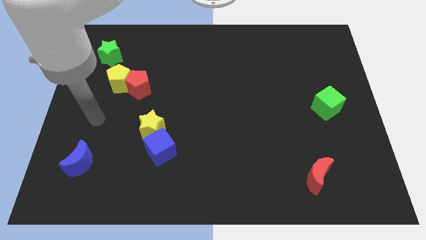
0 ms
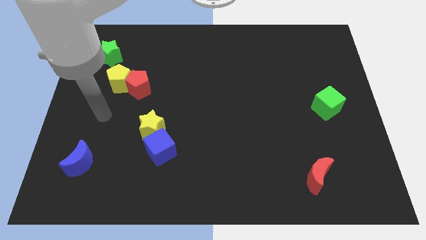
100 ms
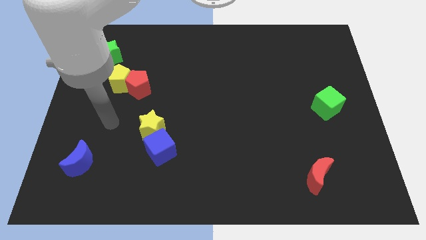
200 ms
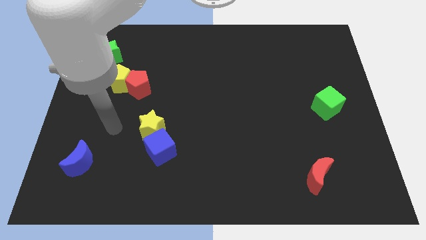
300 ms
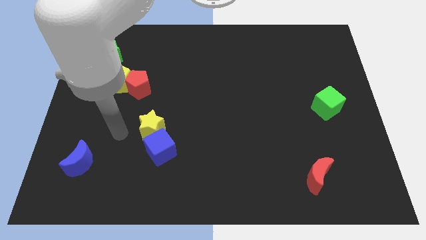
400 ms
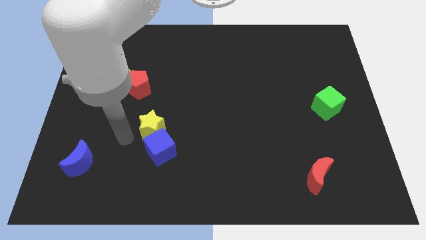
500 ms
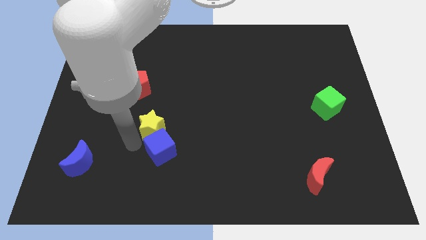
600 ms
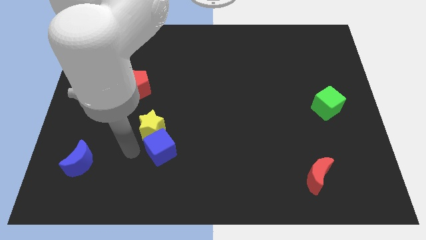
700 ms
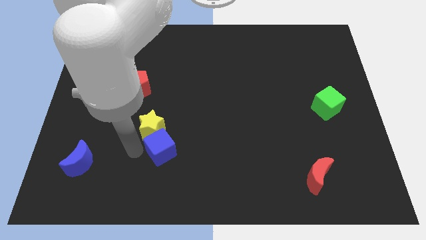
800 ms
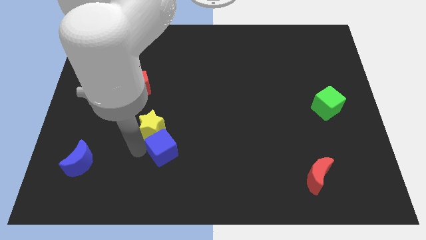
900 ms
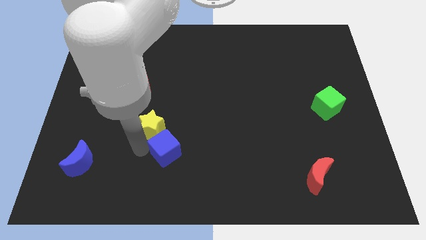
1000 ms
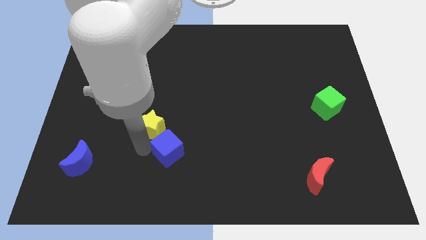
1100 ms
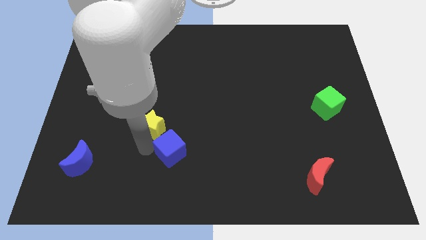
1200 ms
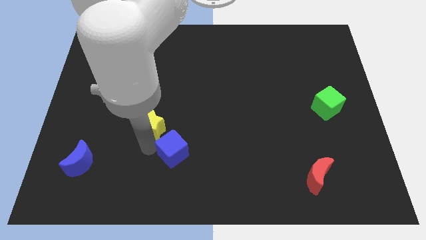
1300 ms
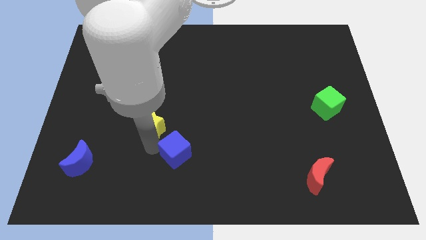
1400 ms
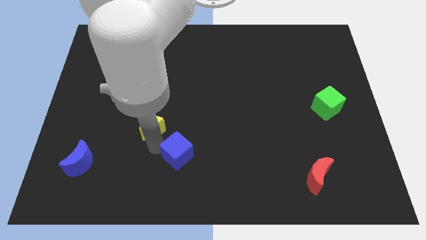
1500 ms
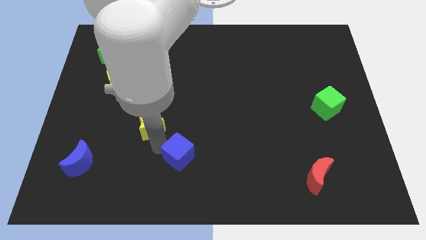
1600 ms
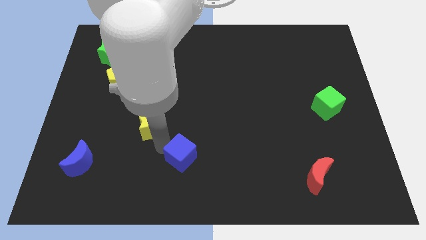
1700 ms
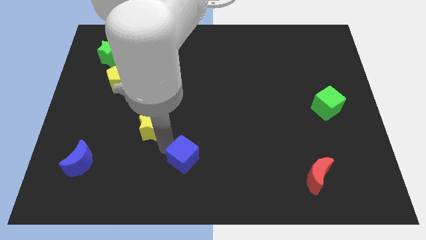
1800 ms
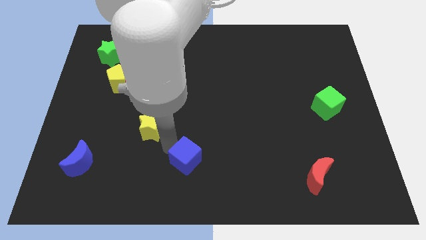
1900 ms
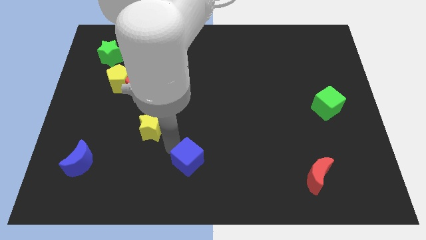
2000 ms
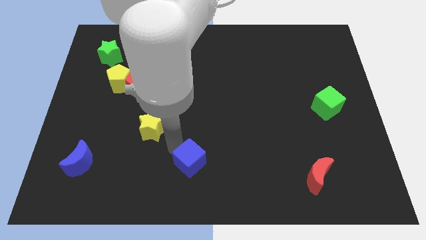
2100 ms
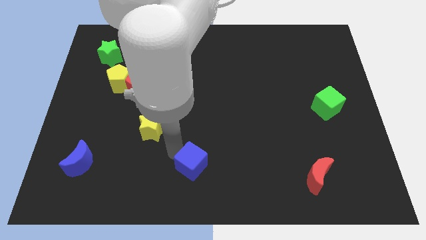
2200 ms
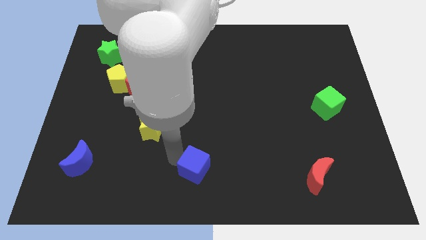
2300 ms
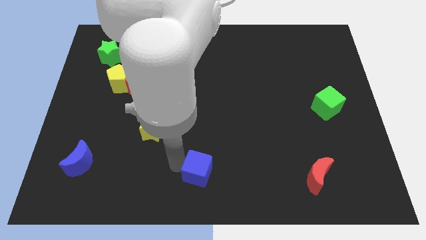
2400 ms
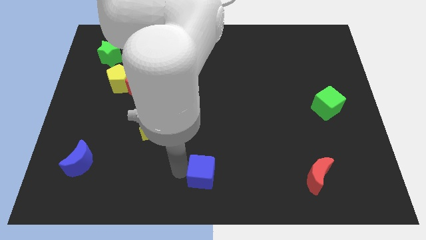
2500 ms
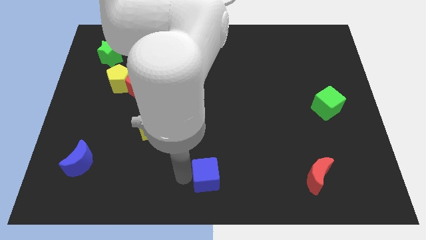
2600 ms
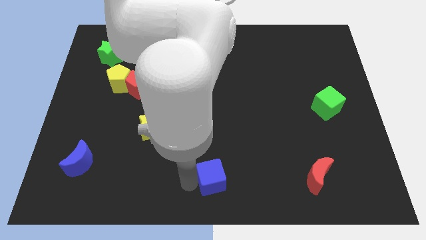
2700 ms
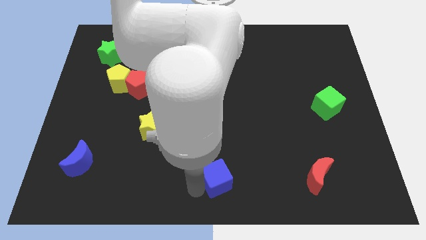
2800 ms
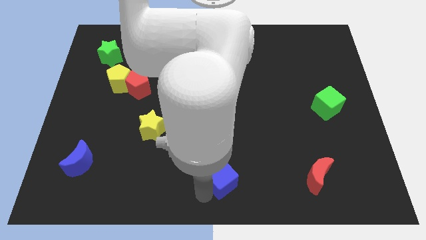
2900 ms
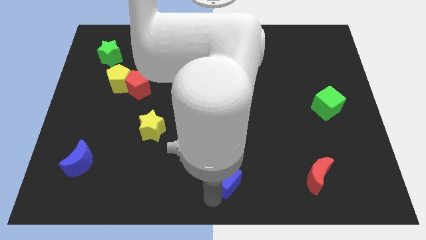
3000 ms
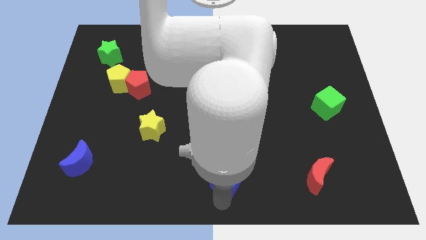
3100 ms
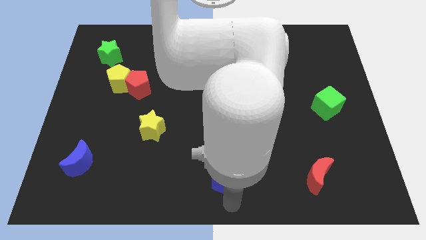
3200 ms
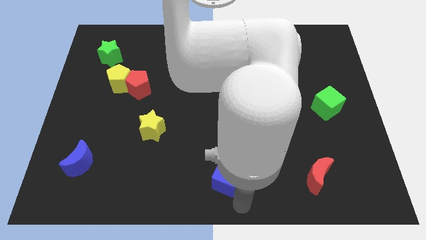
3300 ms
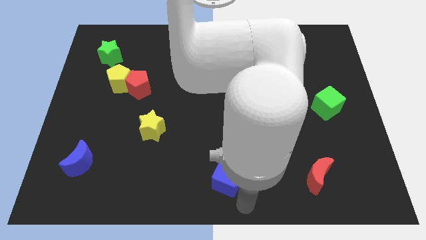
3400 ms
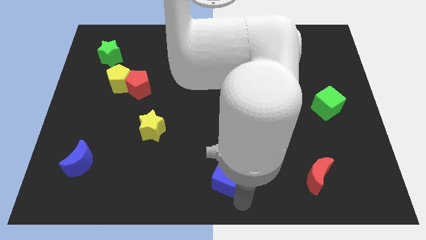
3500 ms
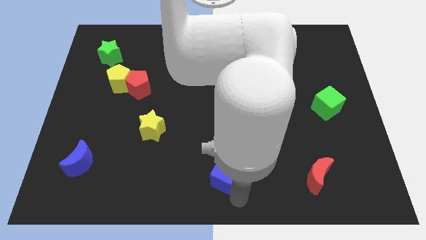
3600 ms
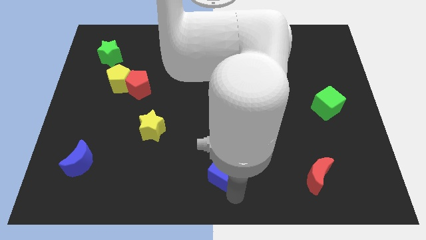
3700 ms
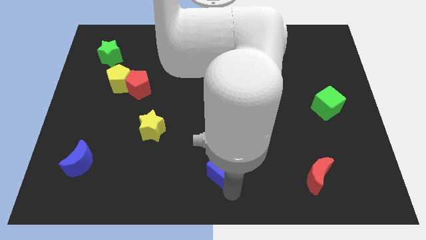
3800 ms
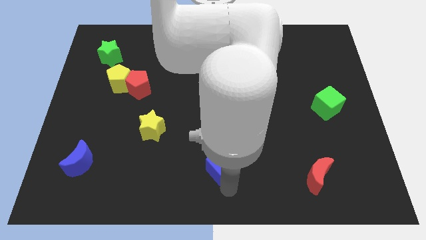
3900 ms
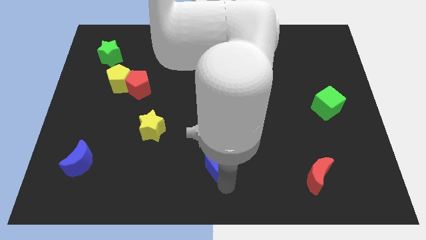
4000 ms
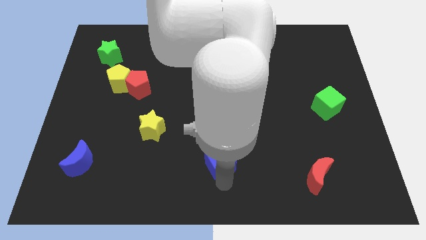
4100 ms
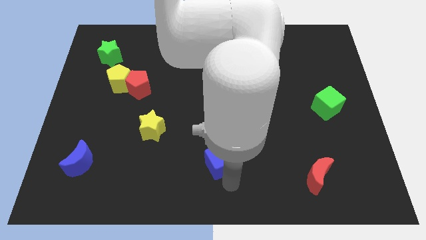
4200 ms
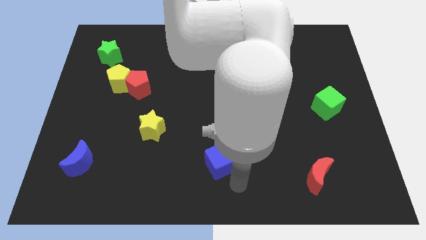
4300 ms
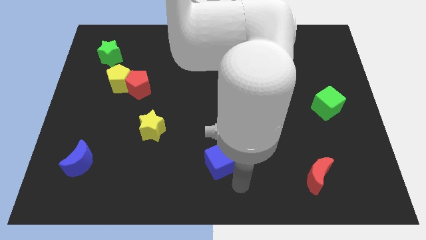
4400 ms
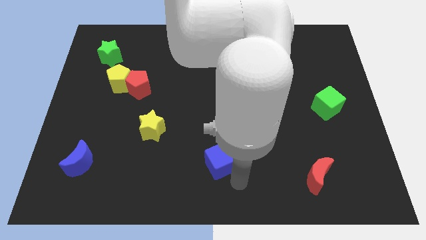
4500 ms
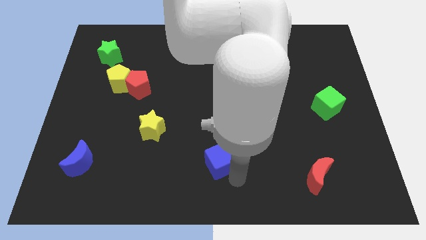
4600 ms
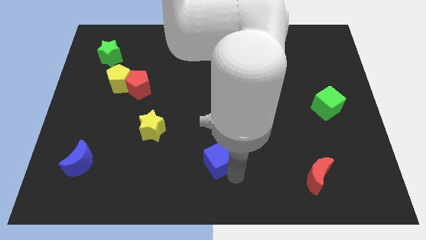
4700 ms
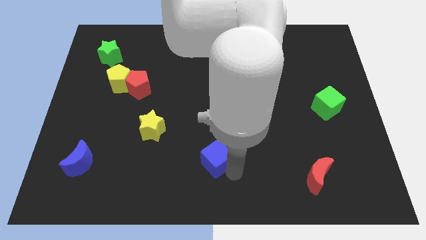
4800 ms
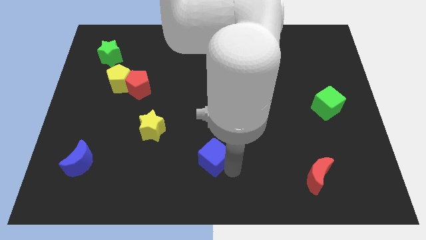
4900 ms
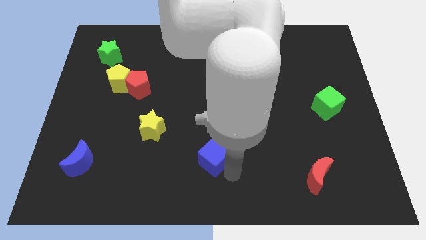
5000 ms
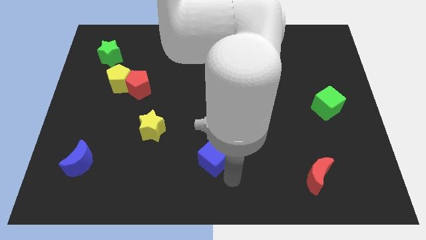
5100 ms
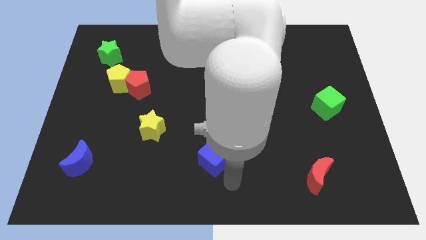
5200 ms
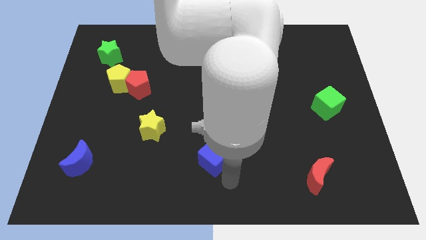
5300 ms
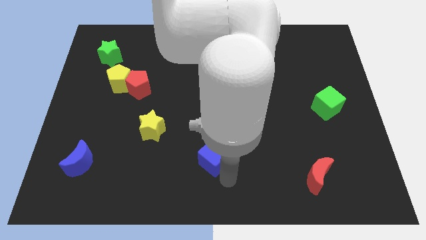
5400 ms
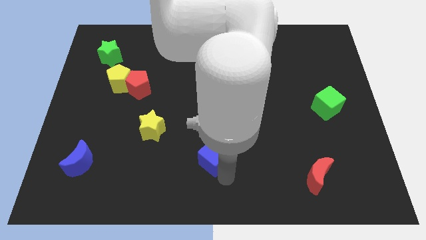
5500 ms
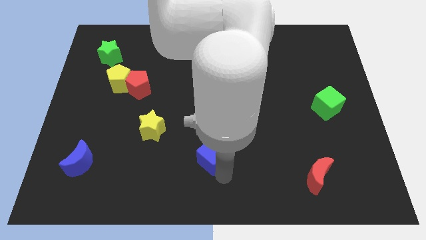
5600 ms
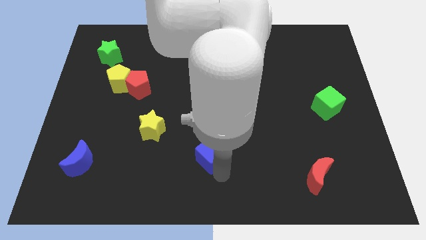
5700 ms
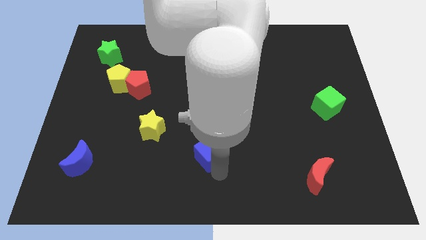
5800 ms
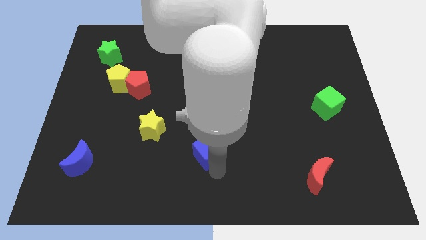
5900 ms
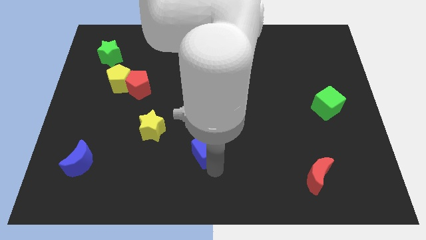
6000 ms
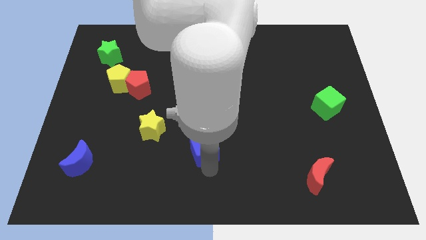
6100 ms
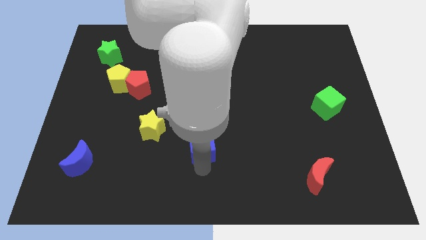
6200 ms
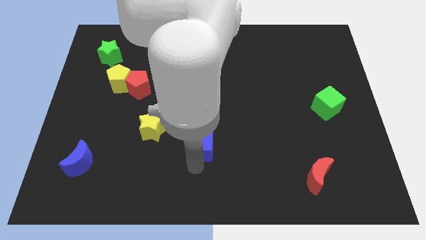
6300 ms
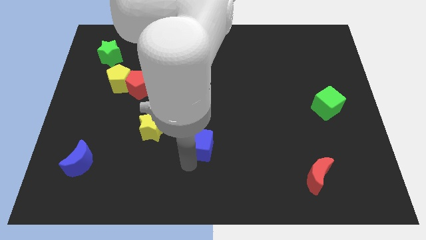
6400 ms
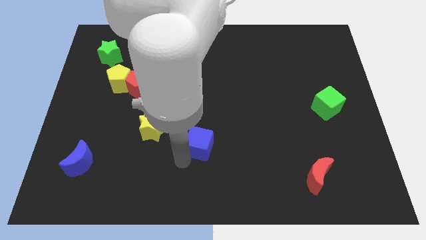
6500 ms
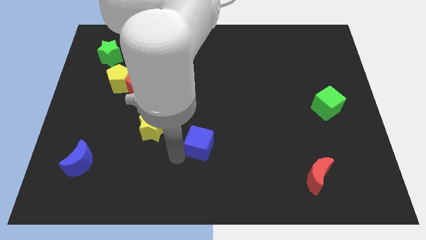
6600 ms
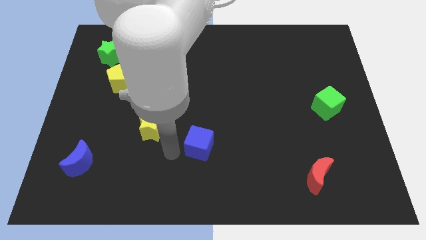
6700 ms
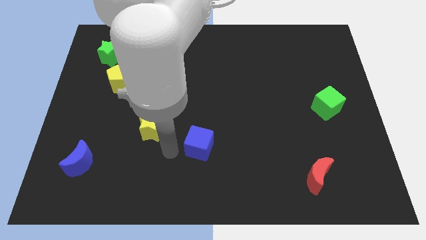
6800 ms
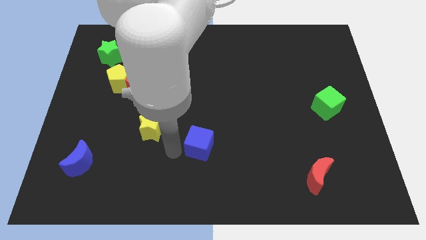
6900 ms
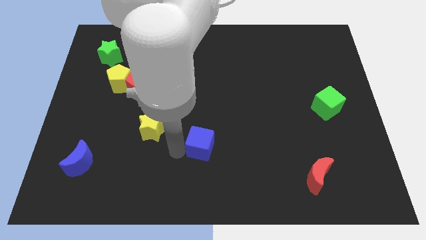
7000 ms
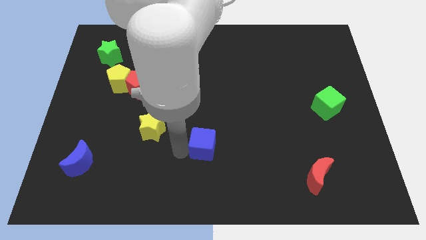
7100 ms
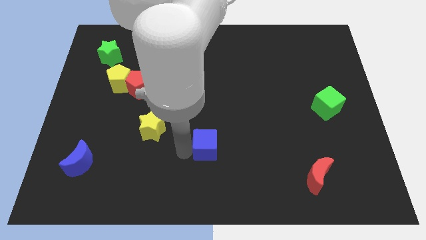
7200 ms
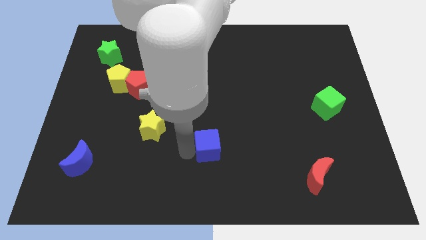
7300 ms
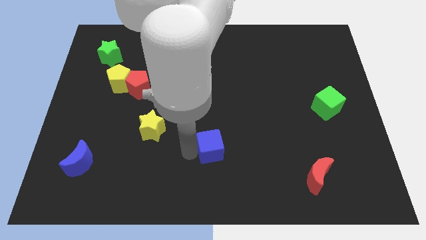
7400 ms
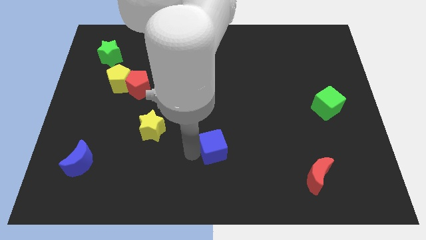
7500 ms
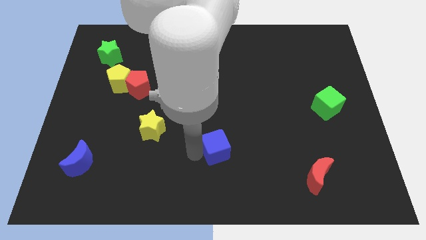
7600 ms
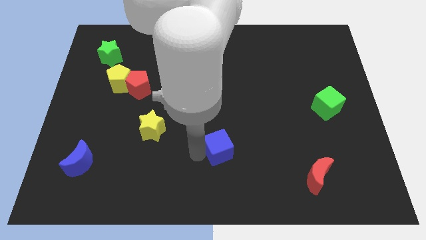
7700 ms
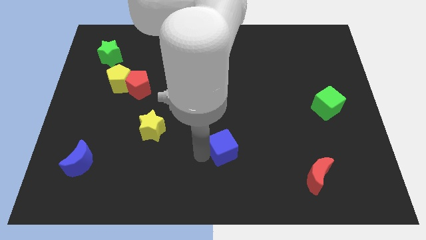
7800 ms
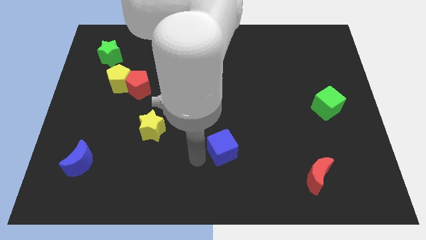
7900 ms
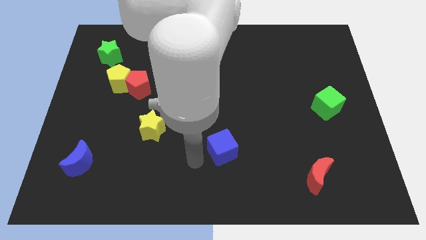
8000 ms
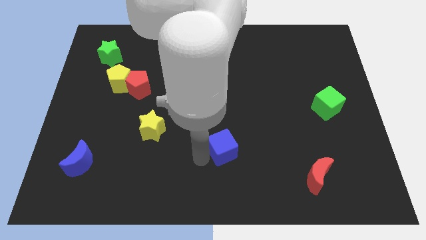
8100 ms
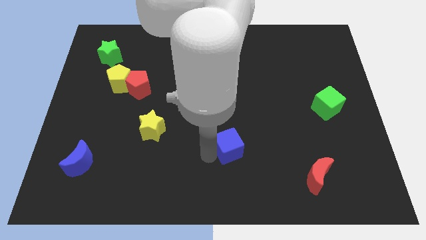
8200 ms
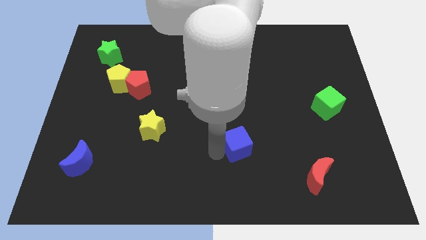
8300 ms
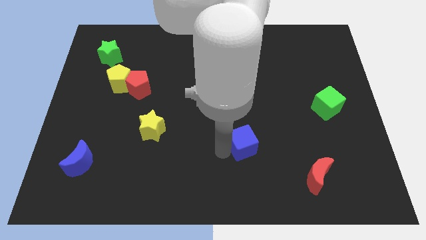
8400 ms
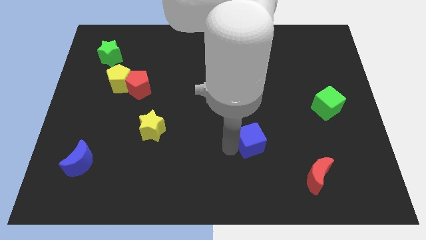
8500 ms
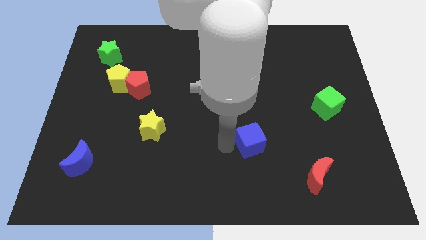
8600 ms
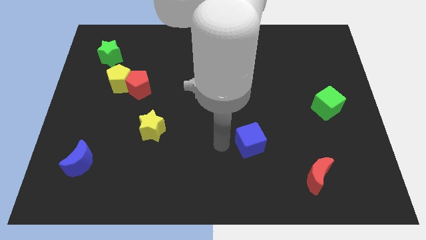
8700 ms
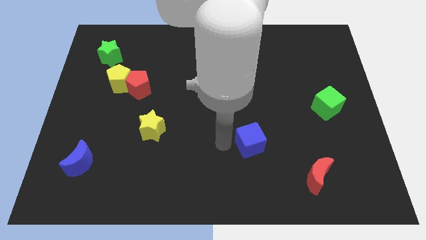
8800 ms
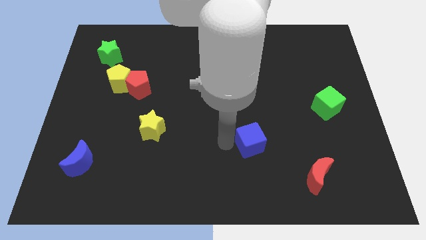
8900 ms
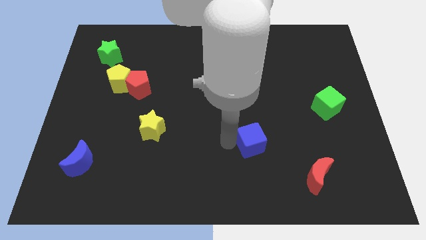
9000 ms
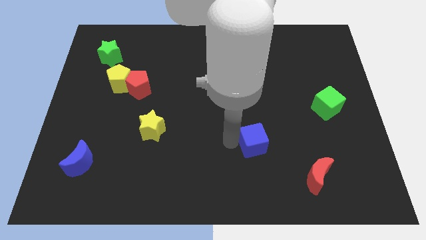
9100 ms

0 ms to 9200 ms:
move the blue cube right
